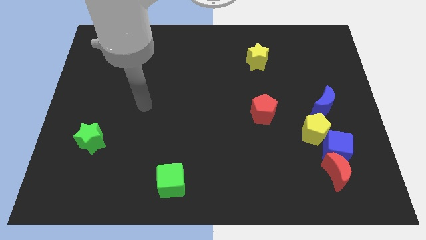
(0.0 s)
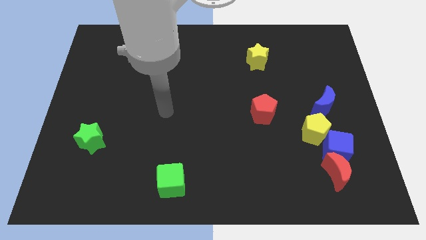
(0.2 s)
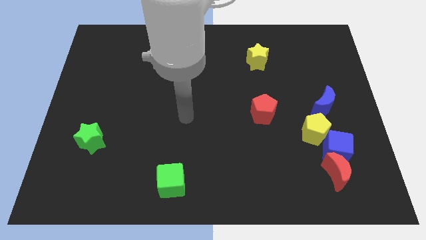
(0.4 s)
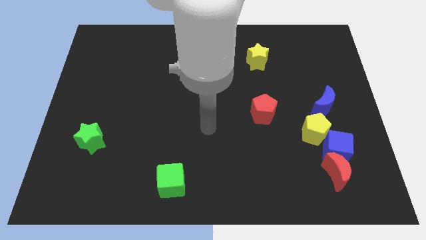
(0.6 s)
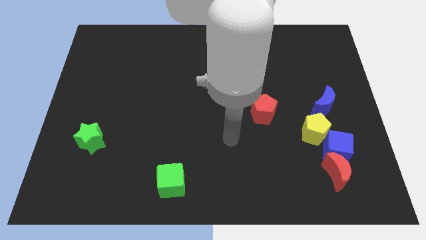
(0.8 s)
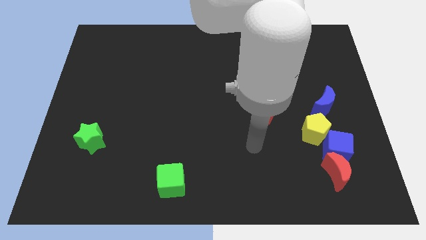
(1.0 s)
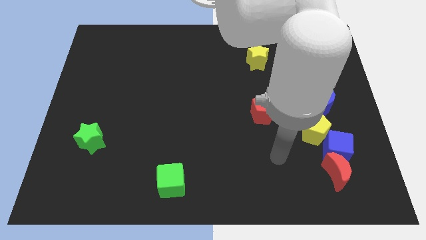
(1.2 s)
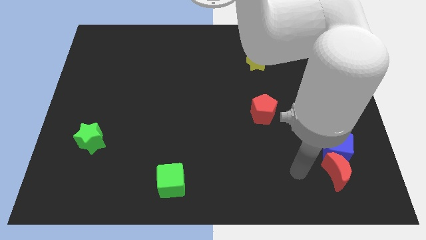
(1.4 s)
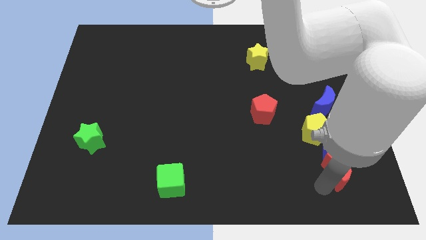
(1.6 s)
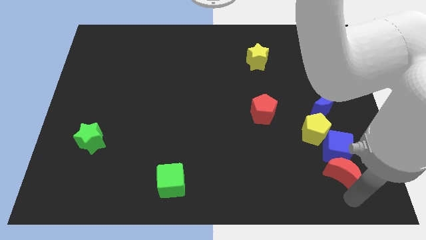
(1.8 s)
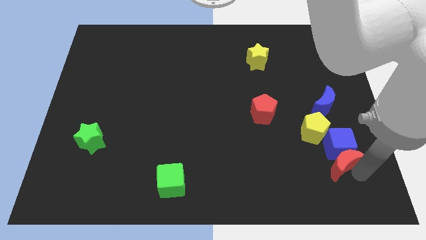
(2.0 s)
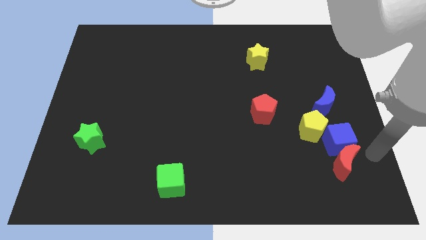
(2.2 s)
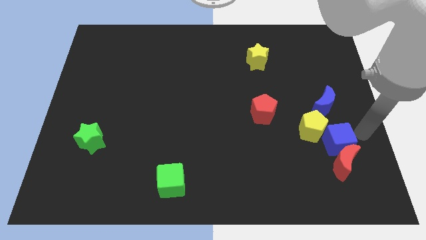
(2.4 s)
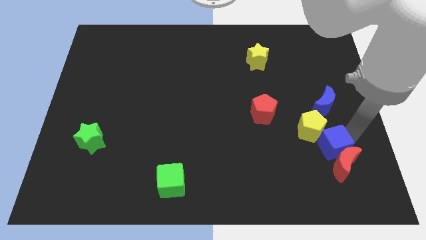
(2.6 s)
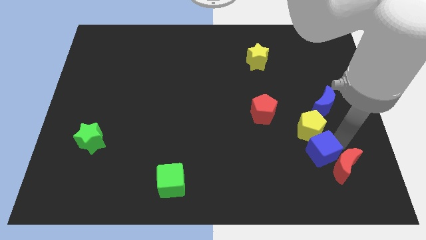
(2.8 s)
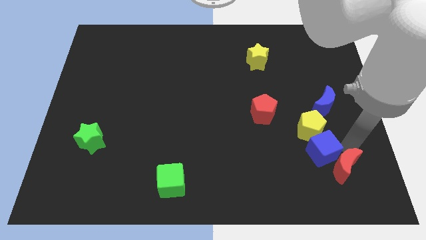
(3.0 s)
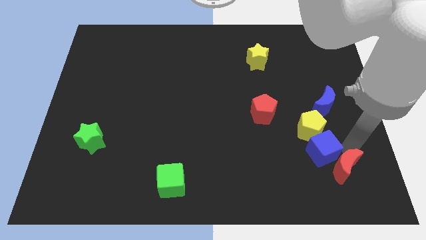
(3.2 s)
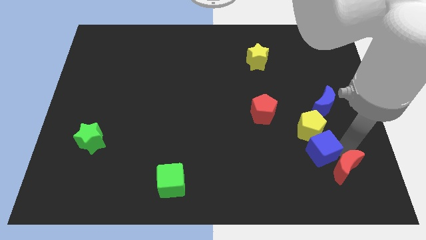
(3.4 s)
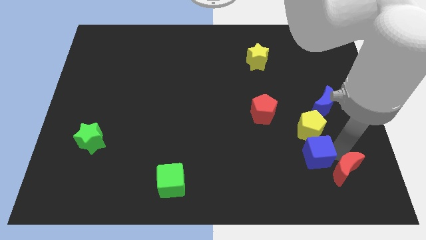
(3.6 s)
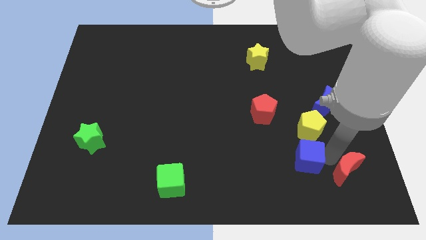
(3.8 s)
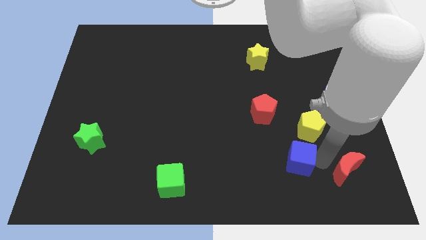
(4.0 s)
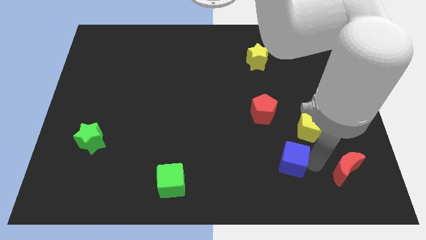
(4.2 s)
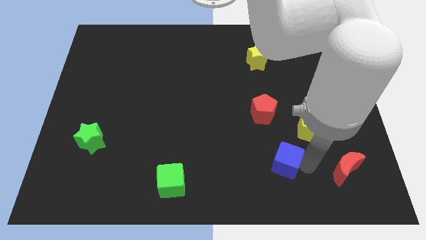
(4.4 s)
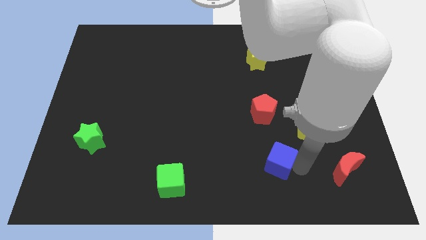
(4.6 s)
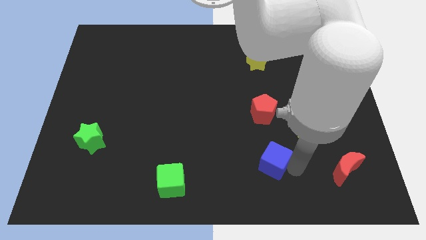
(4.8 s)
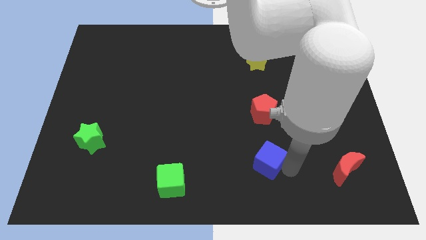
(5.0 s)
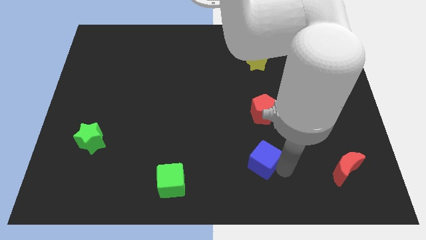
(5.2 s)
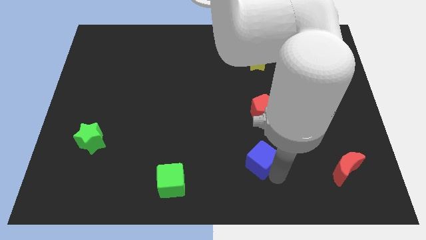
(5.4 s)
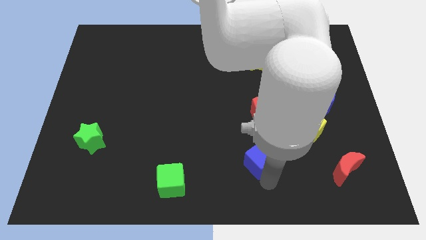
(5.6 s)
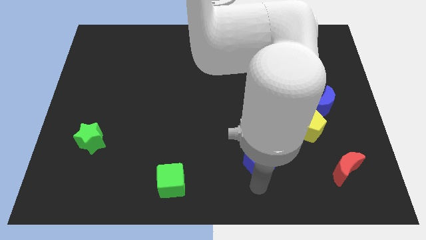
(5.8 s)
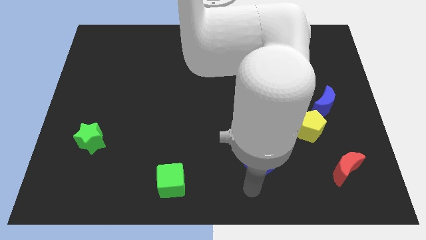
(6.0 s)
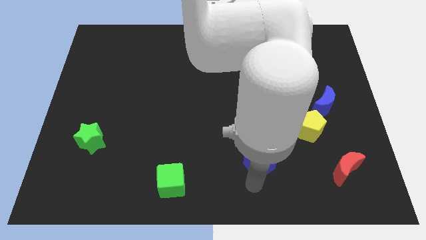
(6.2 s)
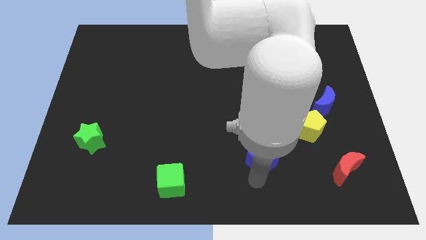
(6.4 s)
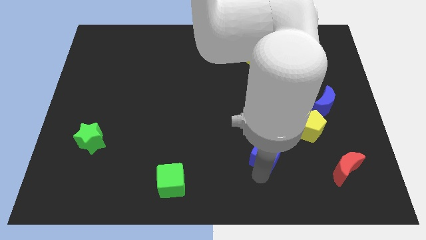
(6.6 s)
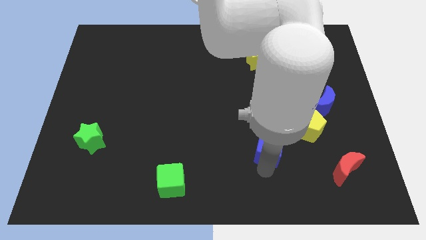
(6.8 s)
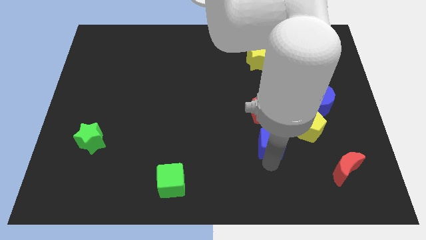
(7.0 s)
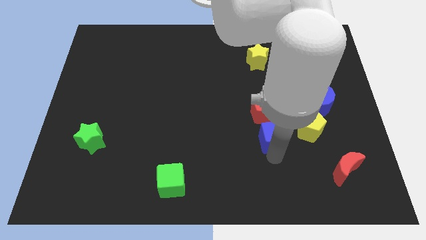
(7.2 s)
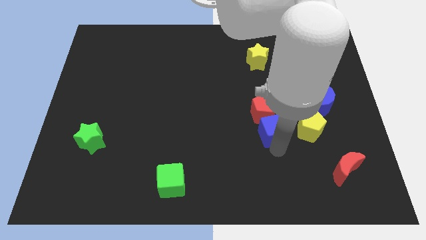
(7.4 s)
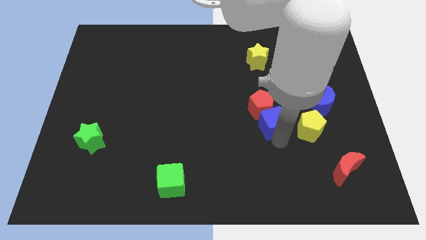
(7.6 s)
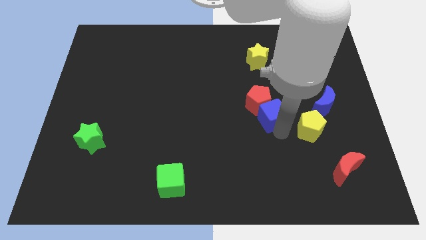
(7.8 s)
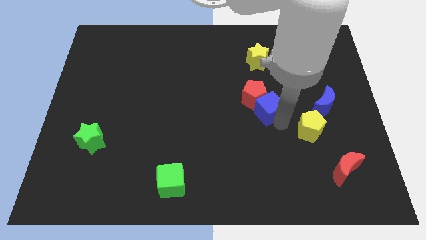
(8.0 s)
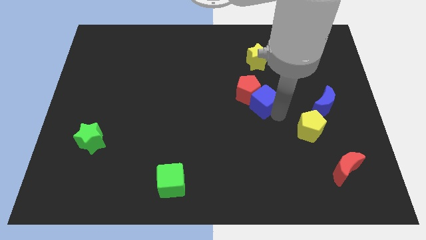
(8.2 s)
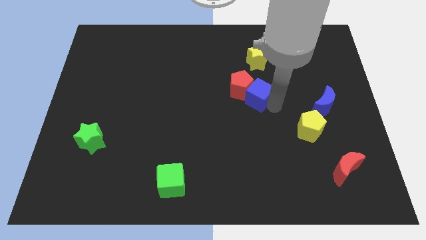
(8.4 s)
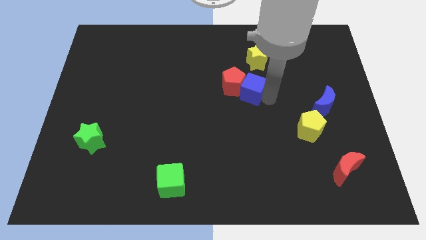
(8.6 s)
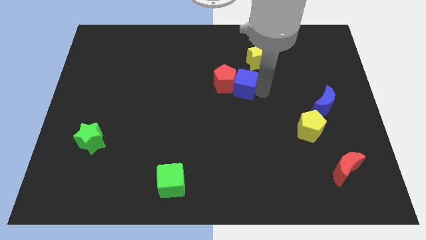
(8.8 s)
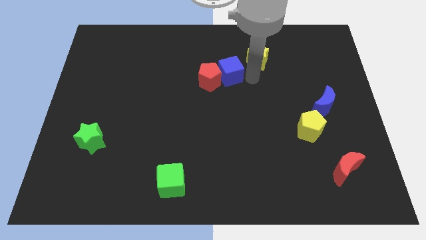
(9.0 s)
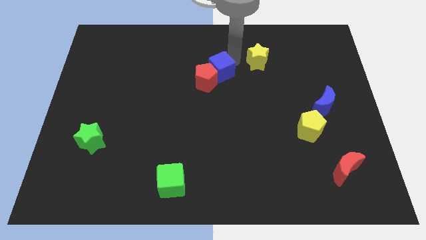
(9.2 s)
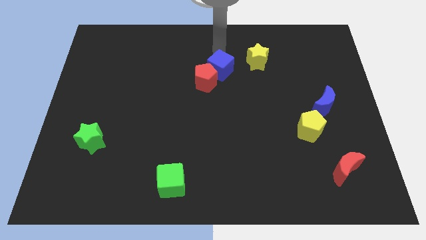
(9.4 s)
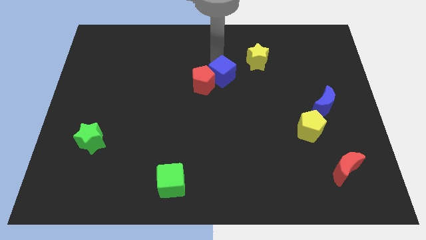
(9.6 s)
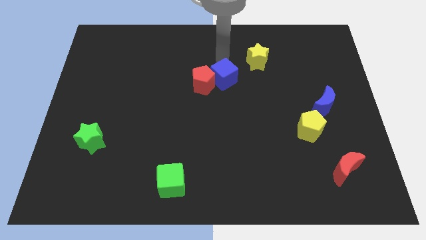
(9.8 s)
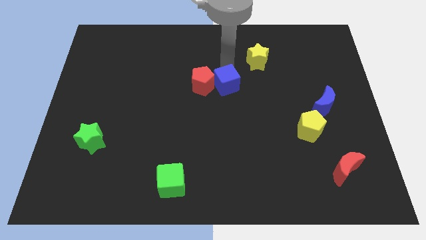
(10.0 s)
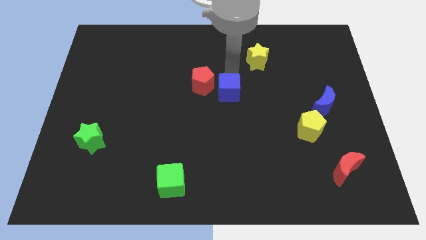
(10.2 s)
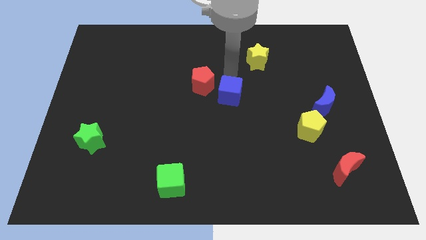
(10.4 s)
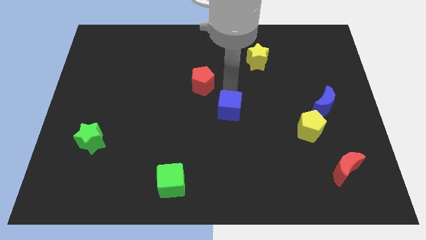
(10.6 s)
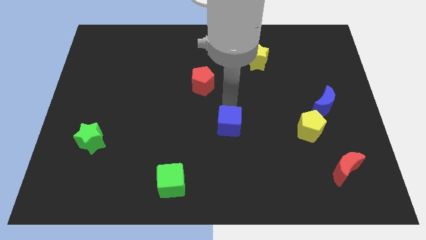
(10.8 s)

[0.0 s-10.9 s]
slide the blue cube left

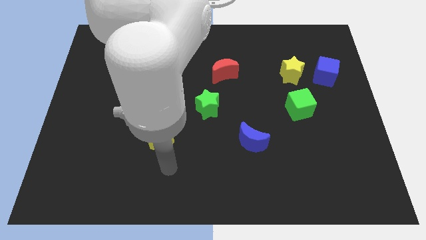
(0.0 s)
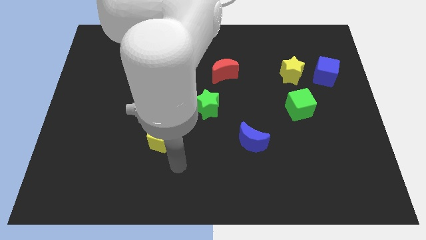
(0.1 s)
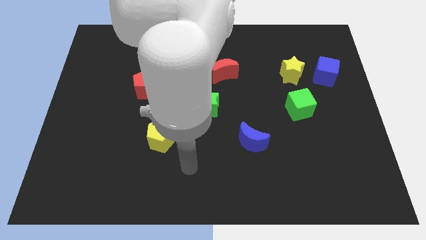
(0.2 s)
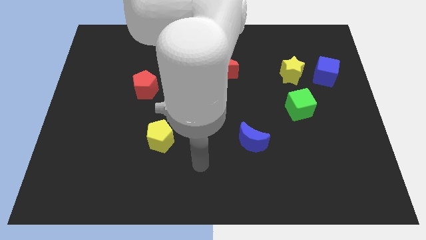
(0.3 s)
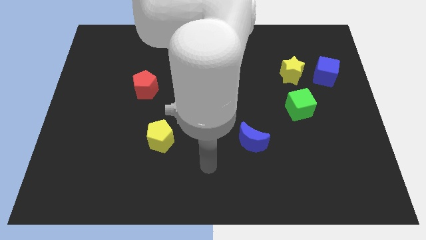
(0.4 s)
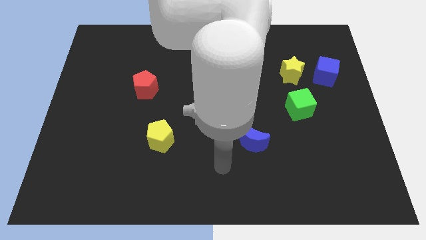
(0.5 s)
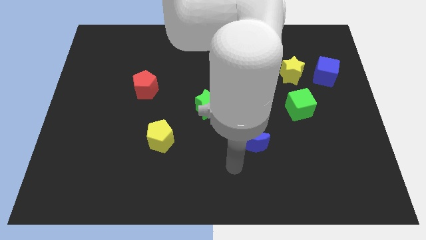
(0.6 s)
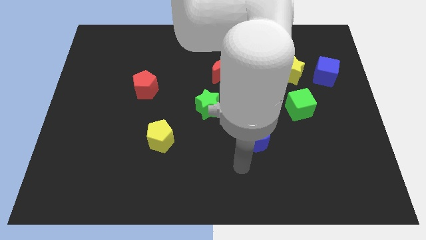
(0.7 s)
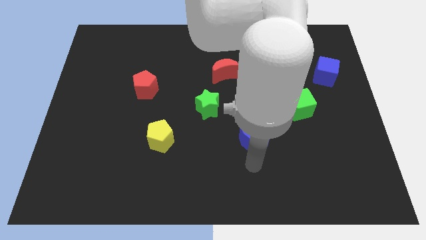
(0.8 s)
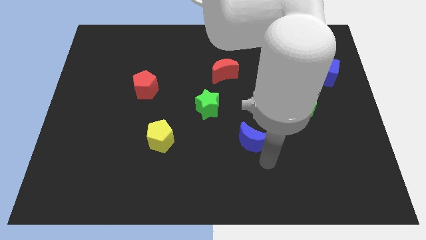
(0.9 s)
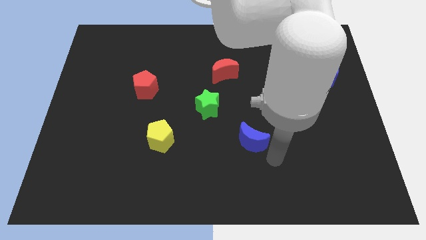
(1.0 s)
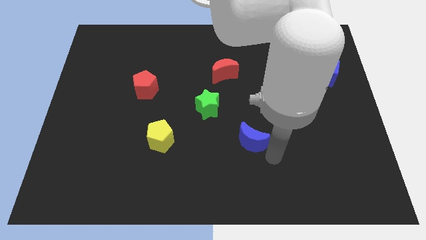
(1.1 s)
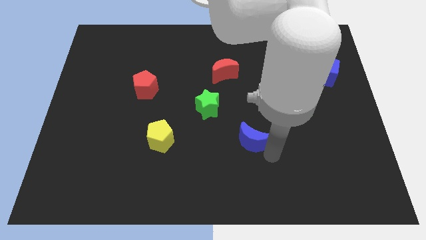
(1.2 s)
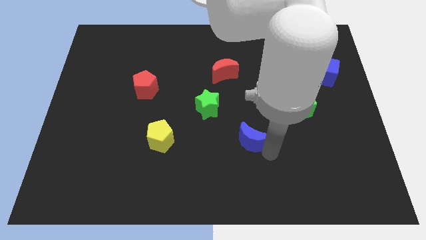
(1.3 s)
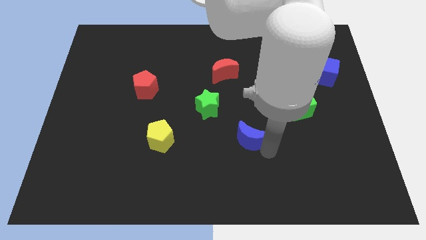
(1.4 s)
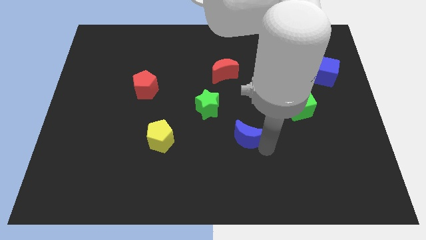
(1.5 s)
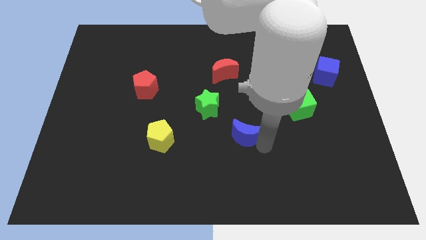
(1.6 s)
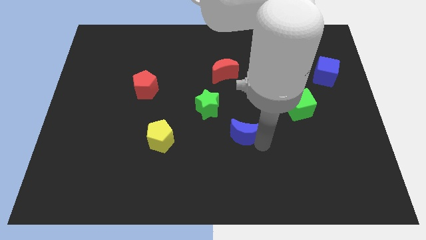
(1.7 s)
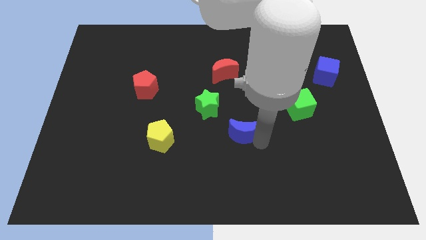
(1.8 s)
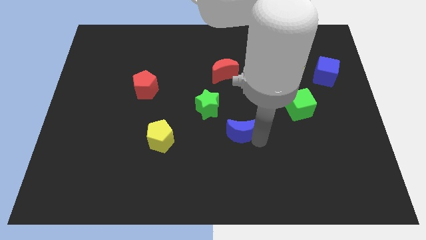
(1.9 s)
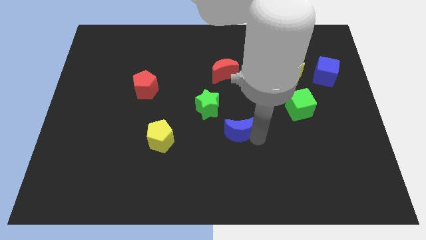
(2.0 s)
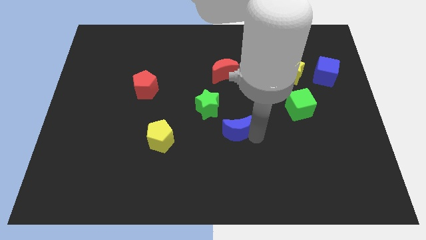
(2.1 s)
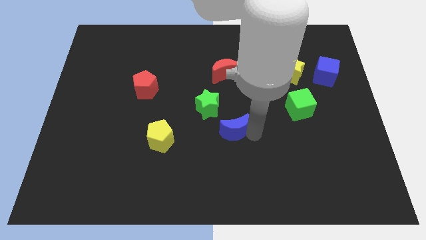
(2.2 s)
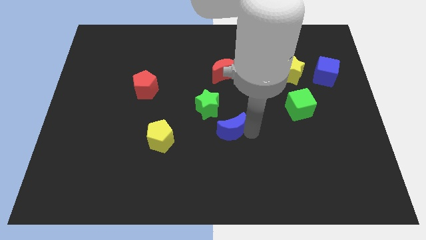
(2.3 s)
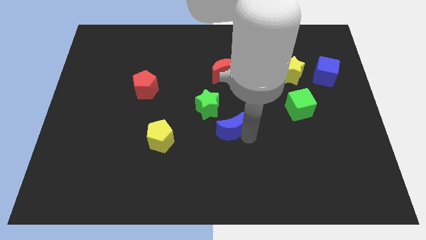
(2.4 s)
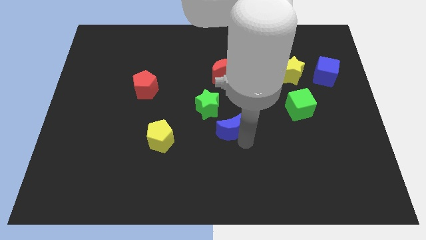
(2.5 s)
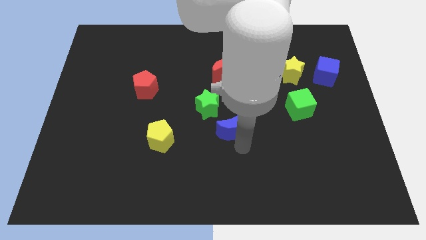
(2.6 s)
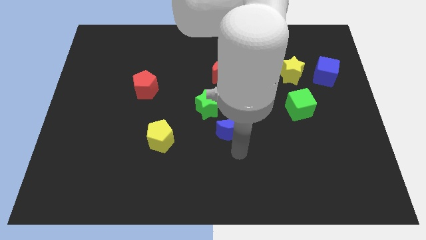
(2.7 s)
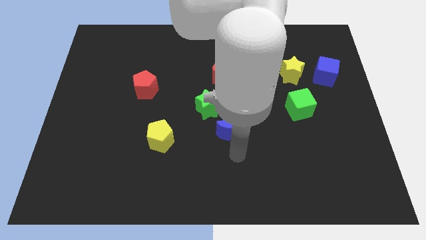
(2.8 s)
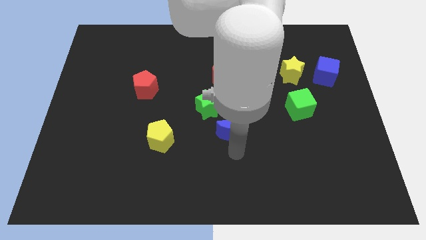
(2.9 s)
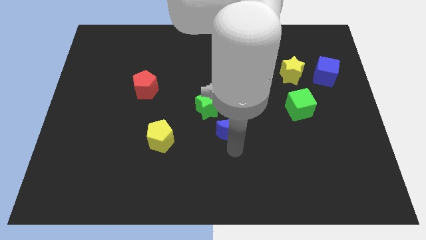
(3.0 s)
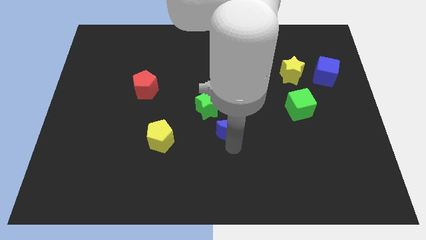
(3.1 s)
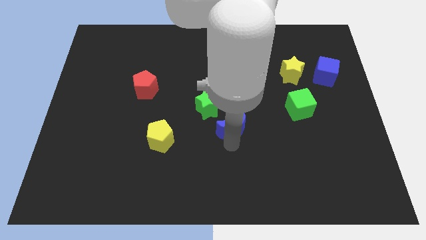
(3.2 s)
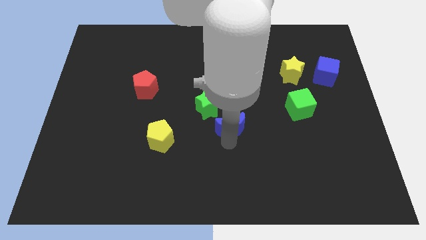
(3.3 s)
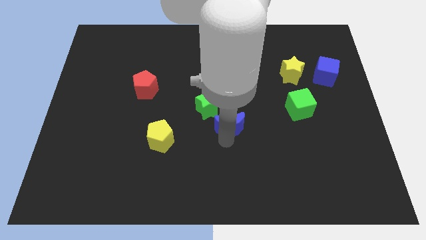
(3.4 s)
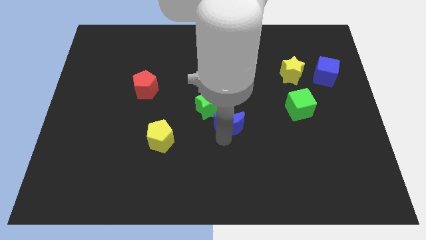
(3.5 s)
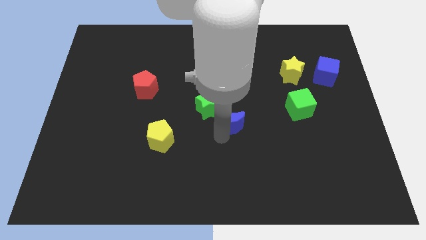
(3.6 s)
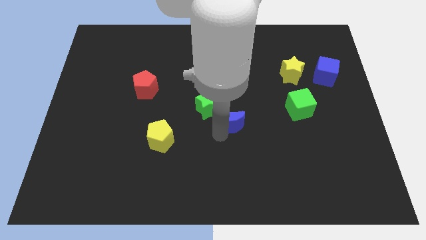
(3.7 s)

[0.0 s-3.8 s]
slide the blue moon diagonally upwards and left a little bit
